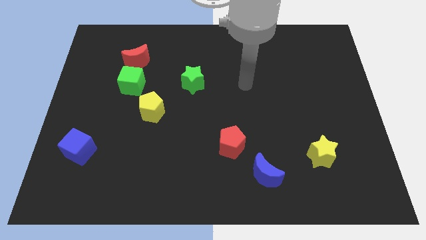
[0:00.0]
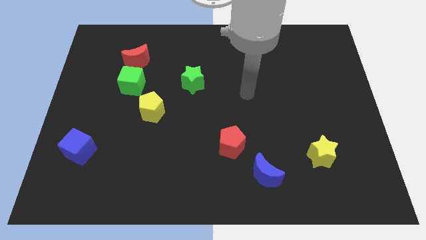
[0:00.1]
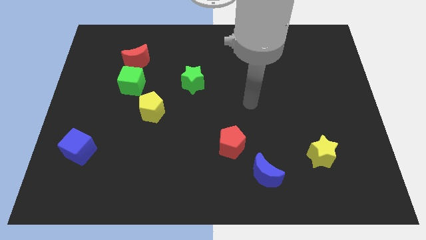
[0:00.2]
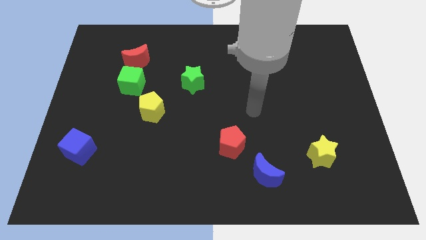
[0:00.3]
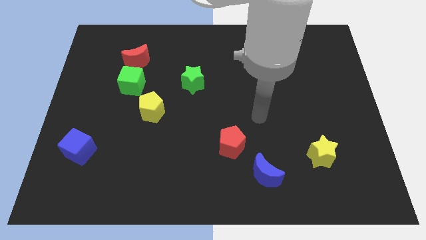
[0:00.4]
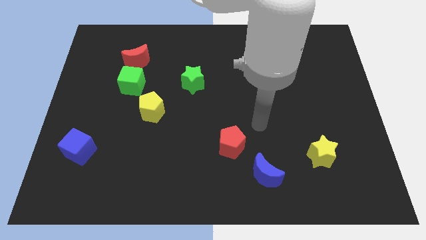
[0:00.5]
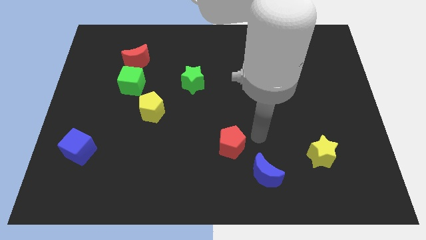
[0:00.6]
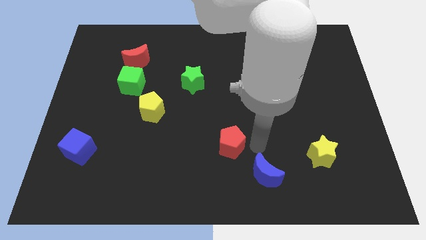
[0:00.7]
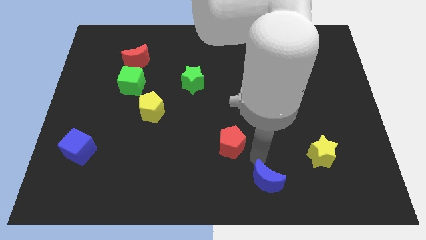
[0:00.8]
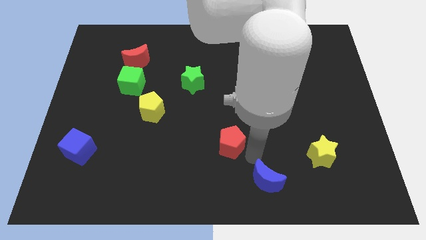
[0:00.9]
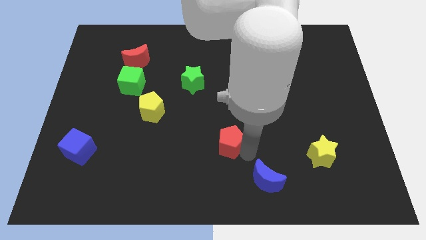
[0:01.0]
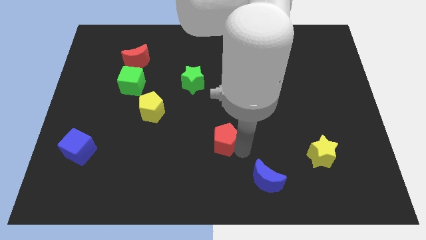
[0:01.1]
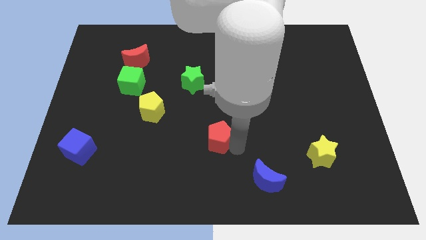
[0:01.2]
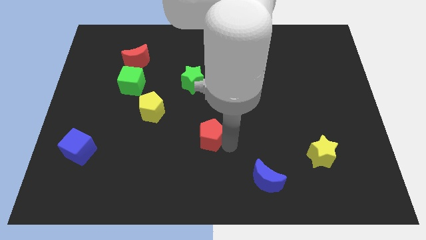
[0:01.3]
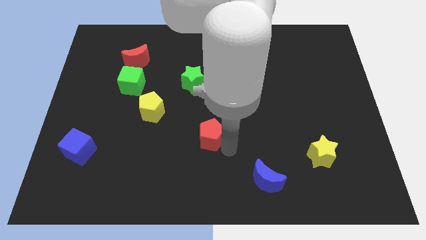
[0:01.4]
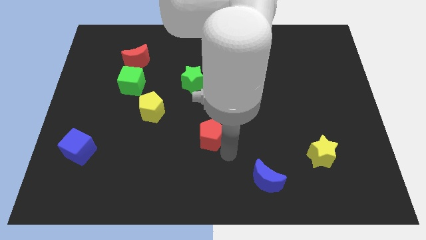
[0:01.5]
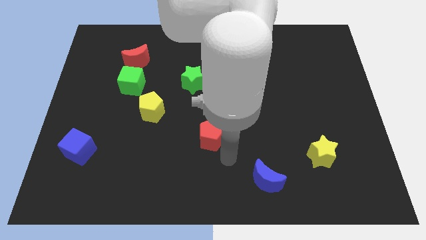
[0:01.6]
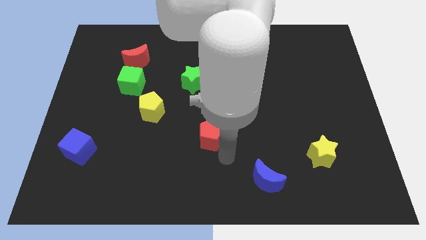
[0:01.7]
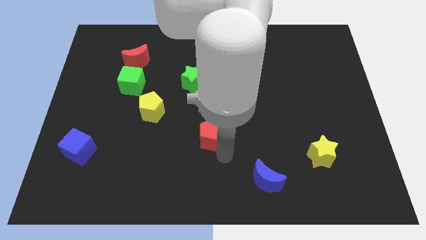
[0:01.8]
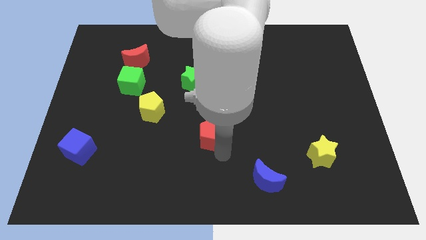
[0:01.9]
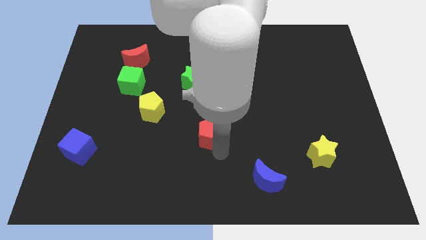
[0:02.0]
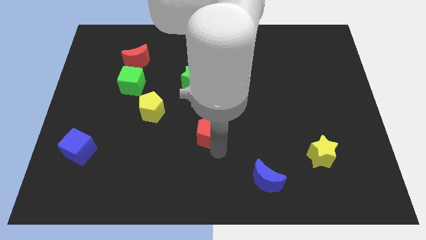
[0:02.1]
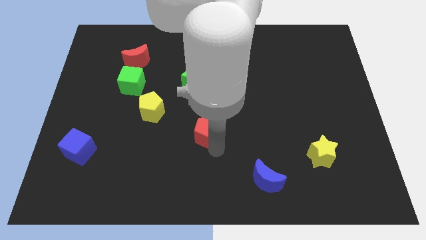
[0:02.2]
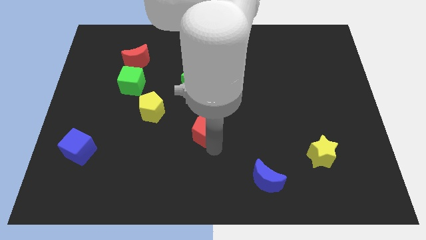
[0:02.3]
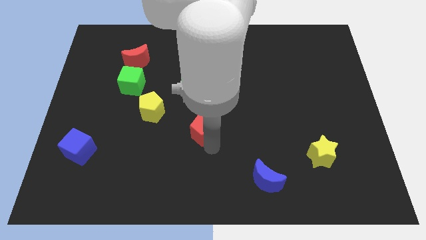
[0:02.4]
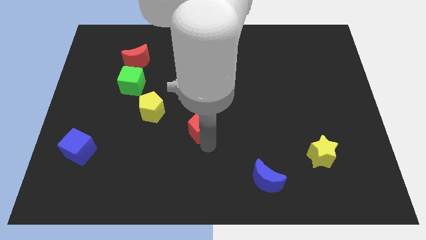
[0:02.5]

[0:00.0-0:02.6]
slide the red pentagon a little upwards and left

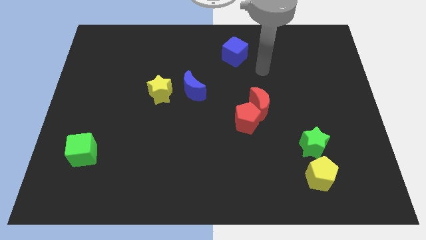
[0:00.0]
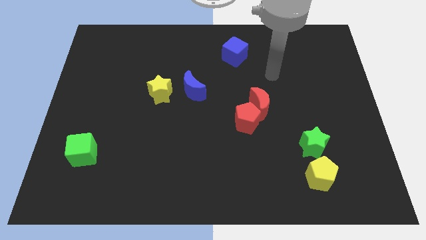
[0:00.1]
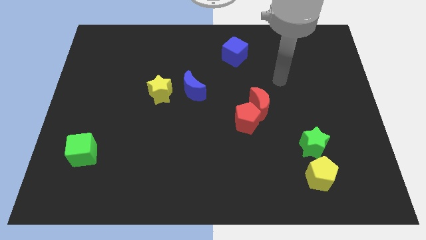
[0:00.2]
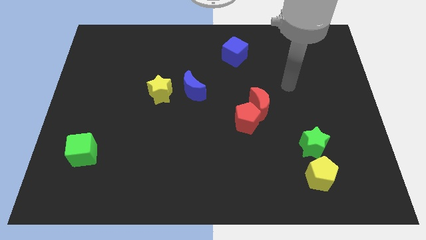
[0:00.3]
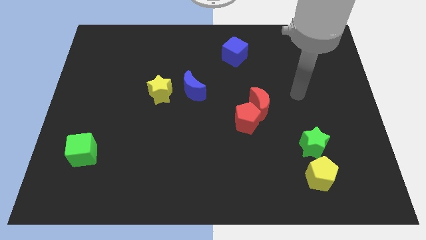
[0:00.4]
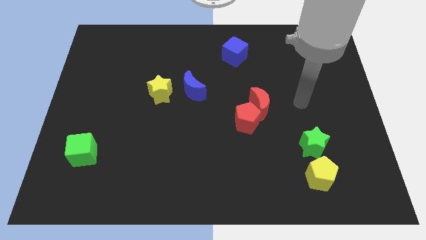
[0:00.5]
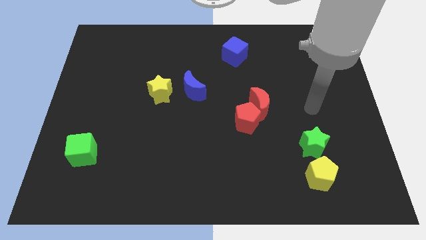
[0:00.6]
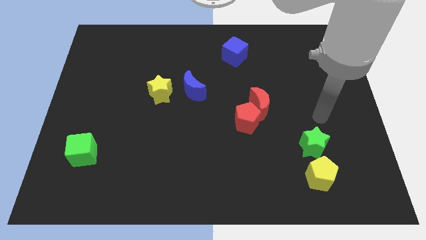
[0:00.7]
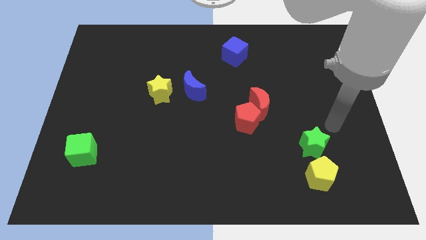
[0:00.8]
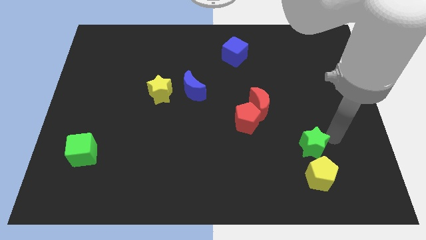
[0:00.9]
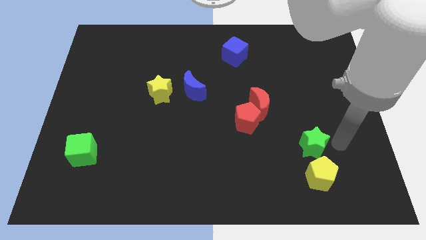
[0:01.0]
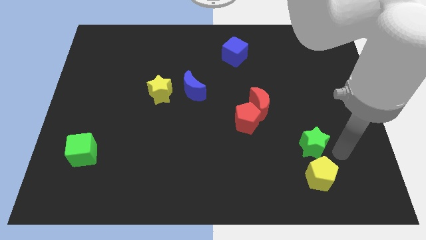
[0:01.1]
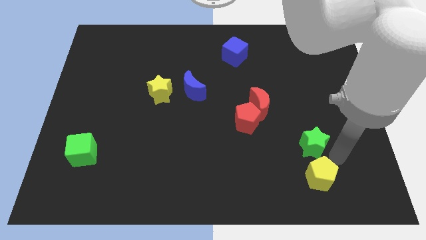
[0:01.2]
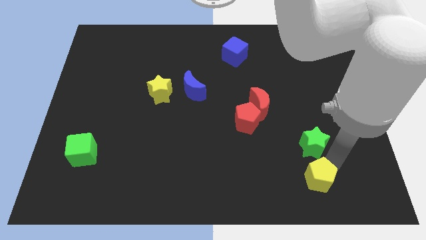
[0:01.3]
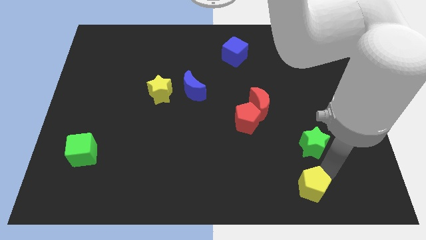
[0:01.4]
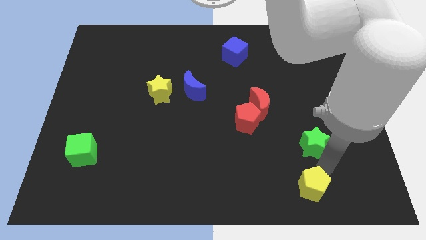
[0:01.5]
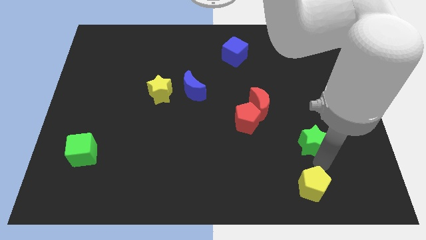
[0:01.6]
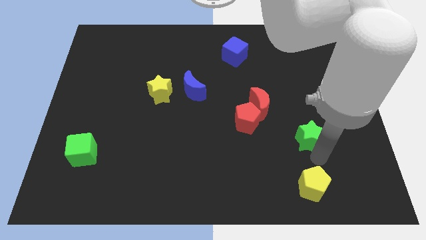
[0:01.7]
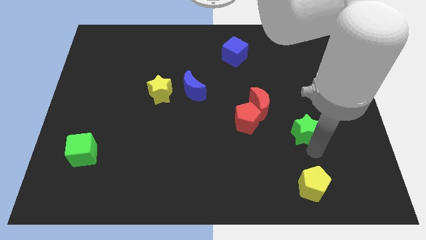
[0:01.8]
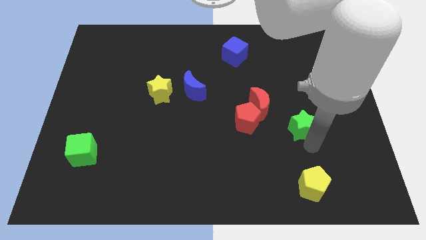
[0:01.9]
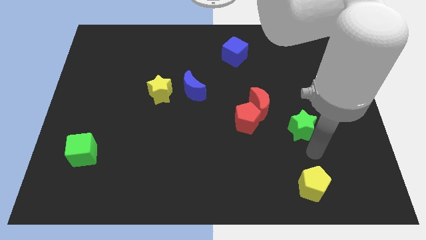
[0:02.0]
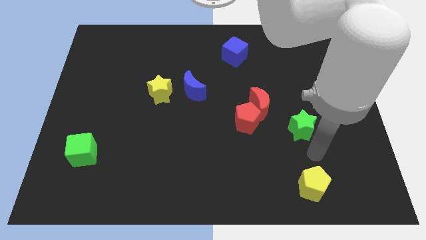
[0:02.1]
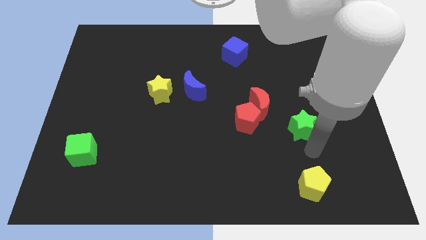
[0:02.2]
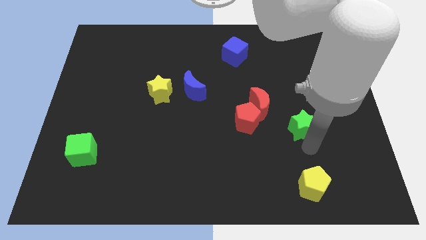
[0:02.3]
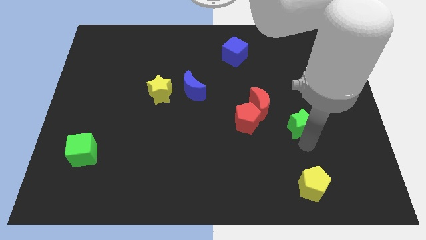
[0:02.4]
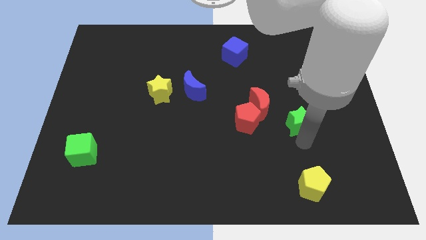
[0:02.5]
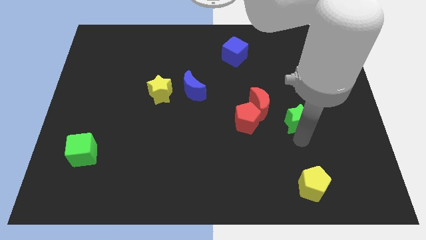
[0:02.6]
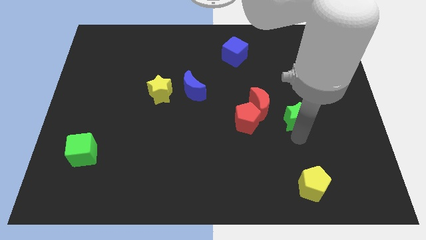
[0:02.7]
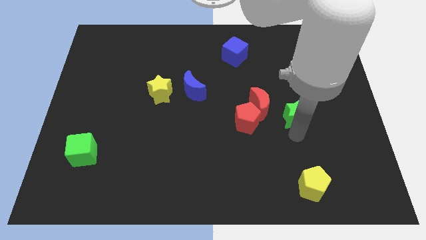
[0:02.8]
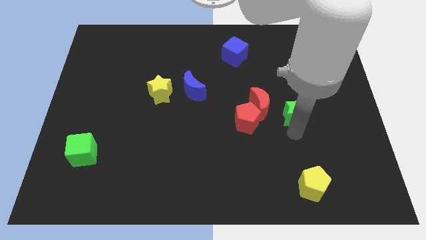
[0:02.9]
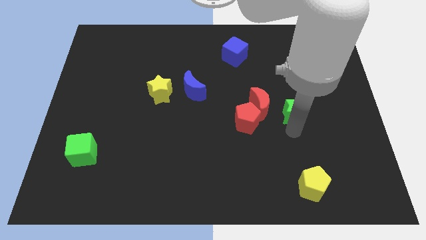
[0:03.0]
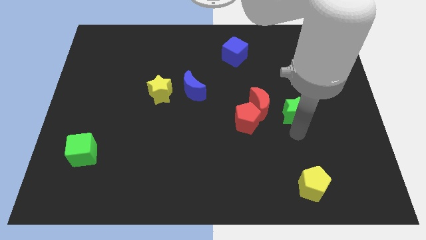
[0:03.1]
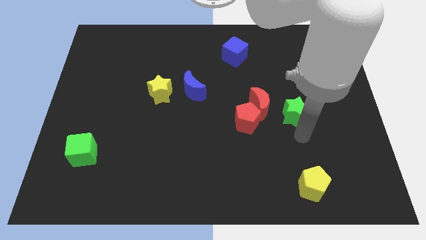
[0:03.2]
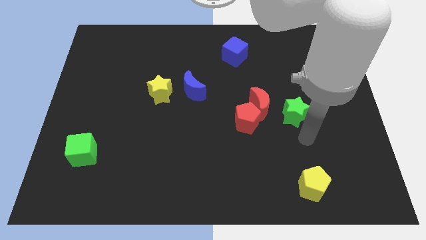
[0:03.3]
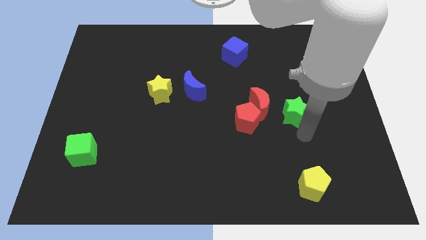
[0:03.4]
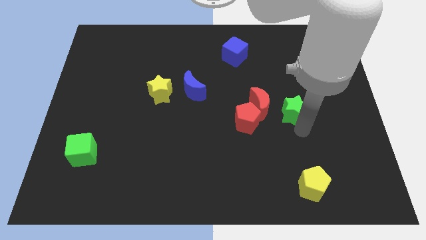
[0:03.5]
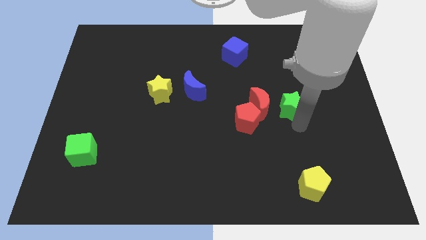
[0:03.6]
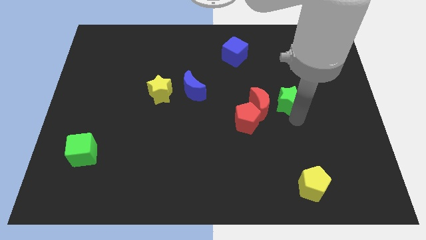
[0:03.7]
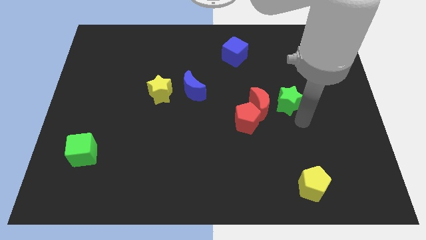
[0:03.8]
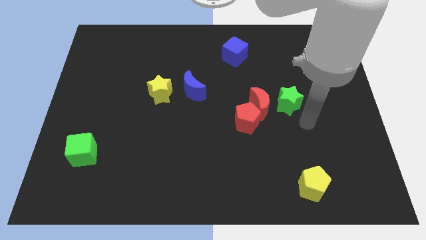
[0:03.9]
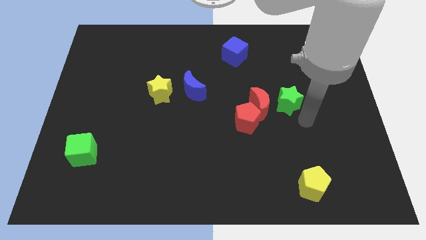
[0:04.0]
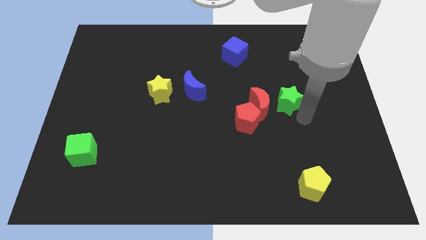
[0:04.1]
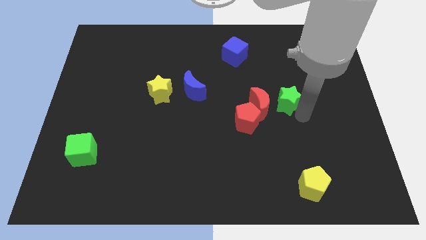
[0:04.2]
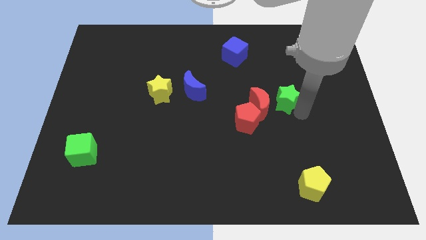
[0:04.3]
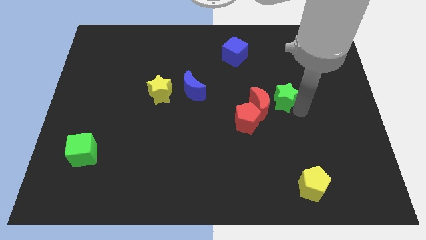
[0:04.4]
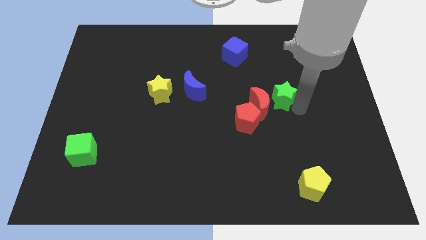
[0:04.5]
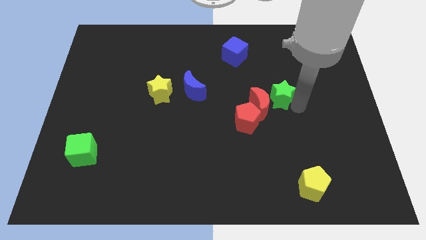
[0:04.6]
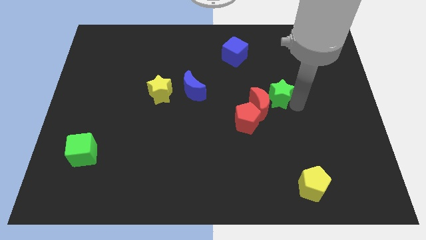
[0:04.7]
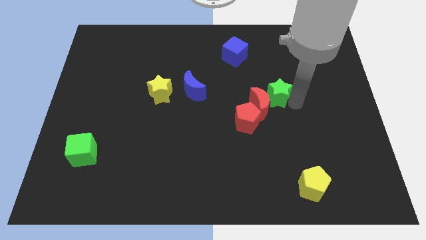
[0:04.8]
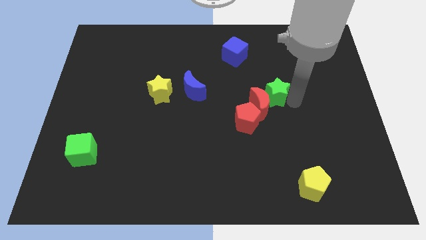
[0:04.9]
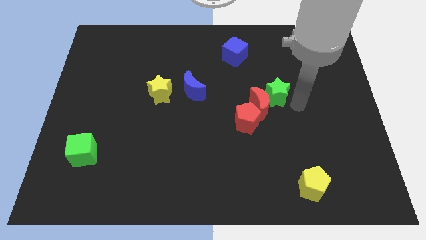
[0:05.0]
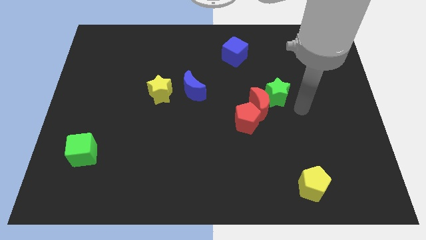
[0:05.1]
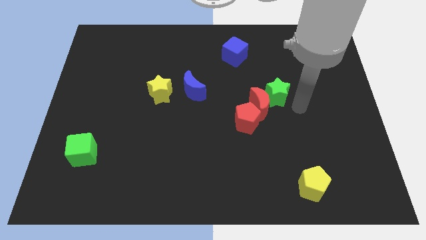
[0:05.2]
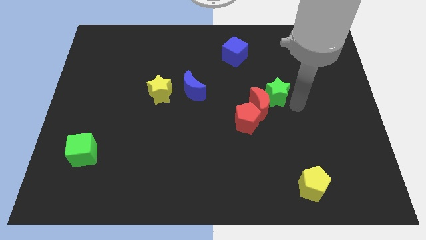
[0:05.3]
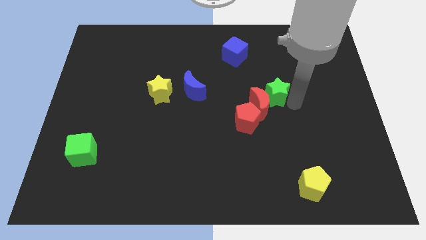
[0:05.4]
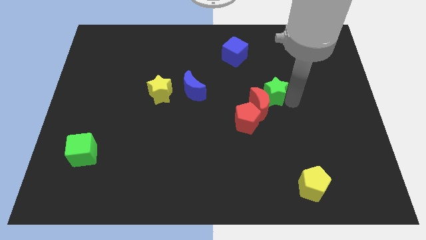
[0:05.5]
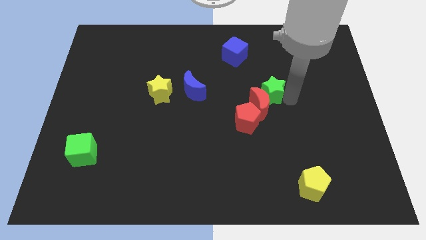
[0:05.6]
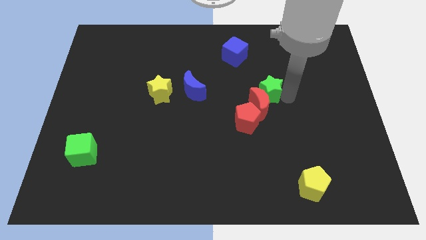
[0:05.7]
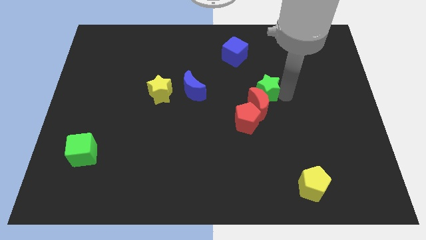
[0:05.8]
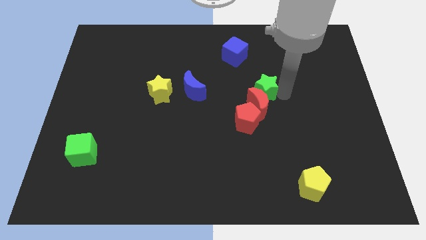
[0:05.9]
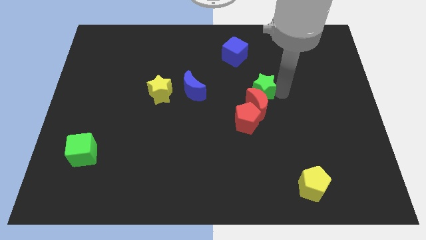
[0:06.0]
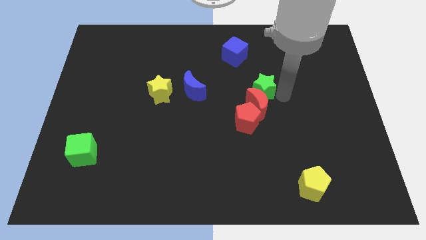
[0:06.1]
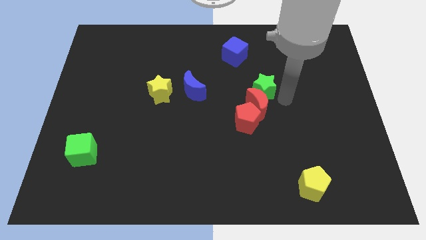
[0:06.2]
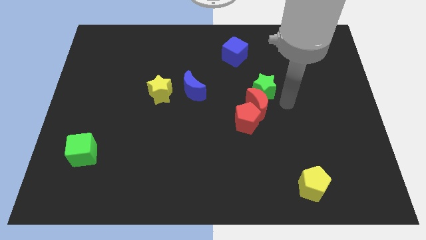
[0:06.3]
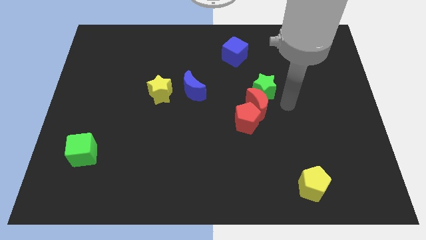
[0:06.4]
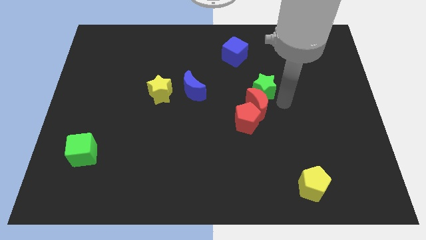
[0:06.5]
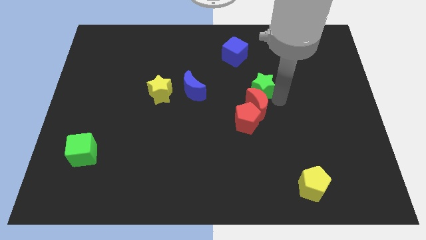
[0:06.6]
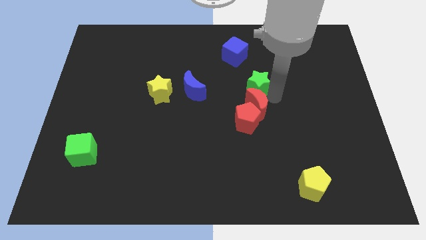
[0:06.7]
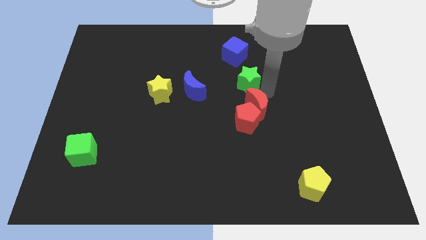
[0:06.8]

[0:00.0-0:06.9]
push the green star upwards and to the left diagonally
